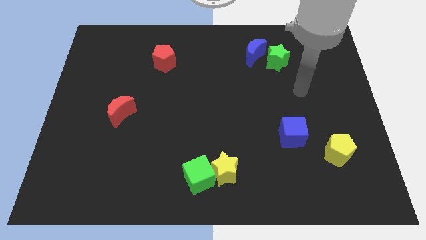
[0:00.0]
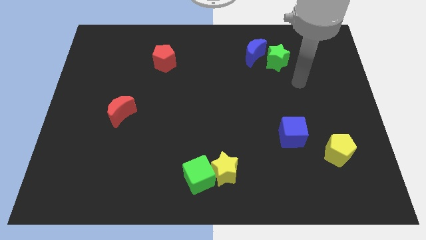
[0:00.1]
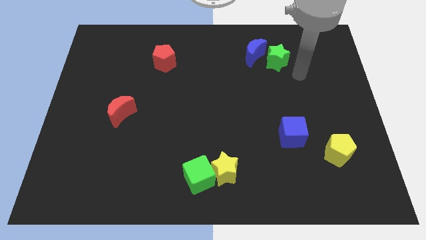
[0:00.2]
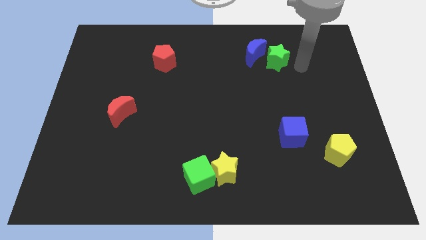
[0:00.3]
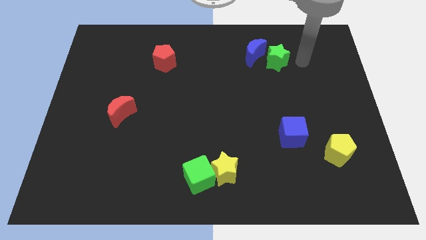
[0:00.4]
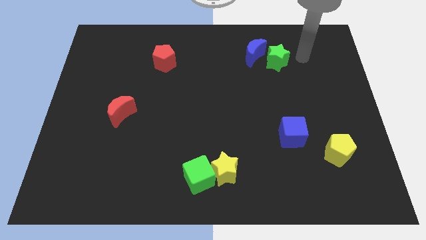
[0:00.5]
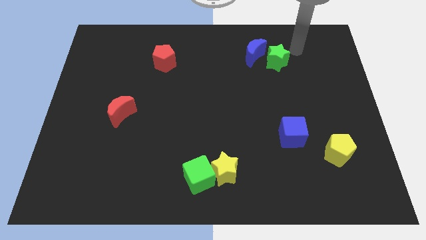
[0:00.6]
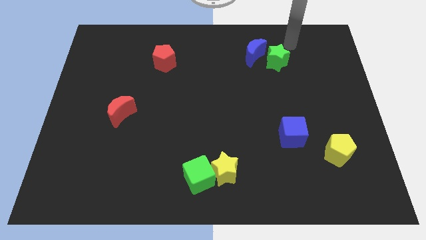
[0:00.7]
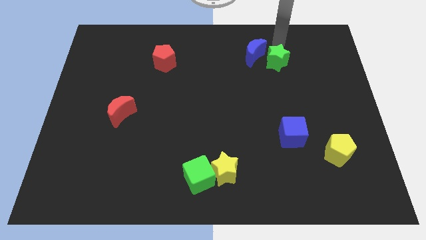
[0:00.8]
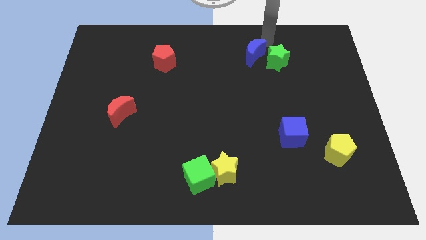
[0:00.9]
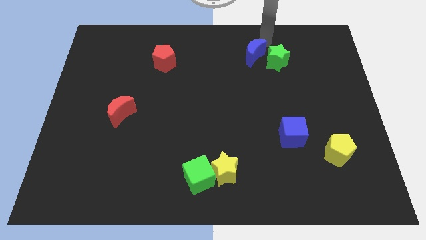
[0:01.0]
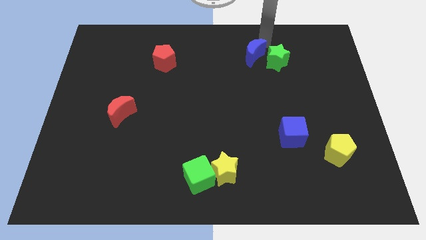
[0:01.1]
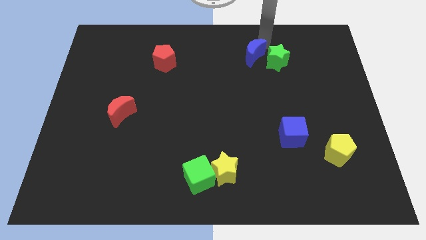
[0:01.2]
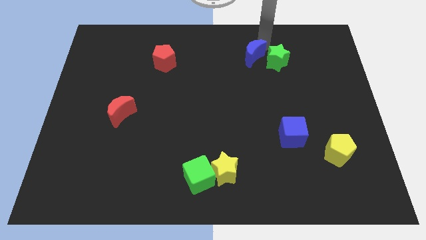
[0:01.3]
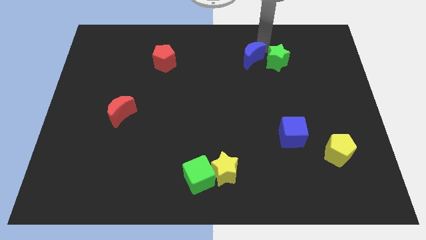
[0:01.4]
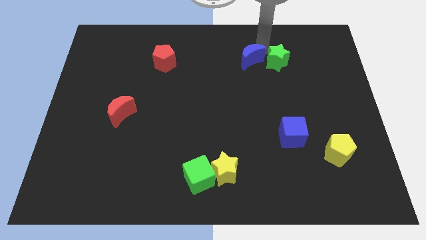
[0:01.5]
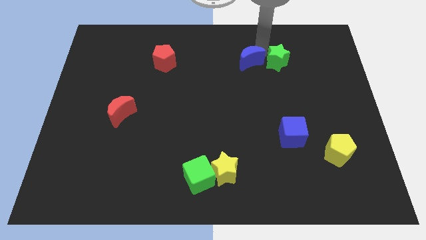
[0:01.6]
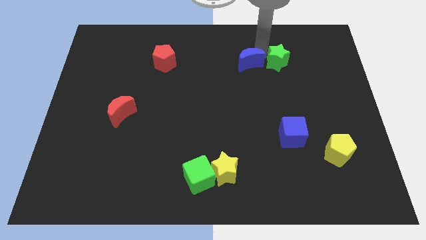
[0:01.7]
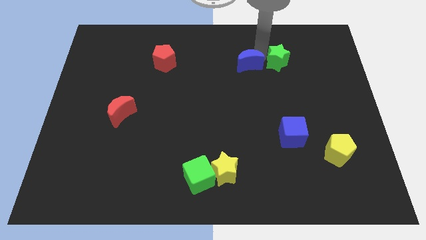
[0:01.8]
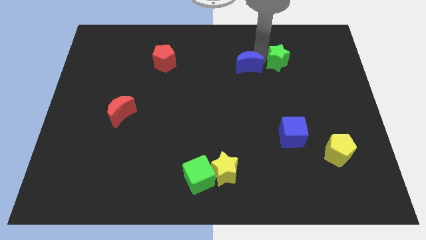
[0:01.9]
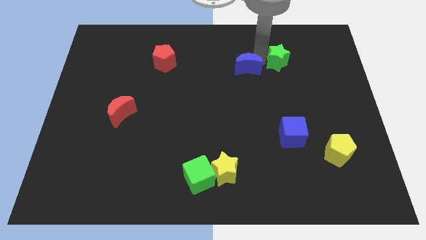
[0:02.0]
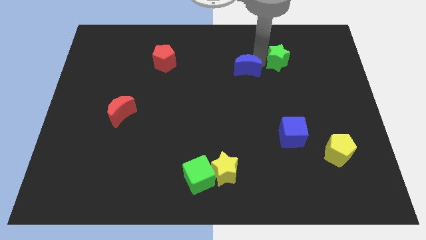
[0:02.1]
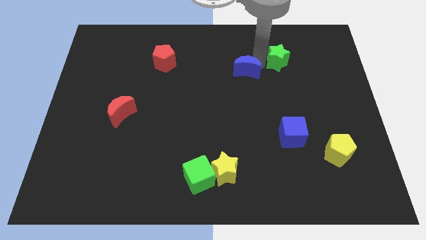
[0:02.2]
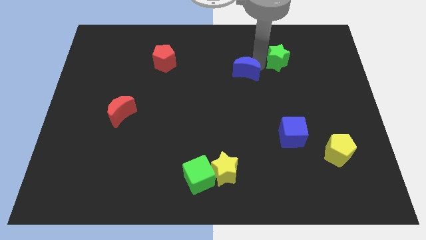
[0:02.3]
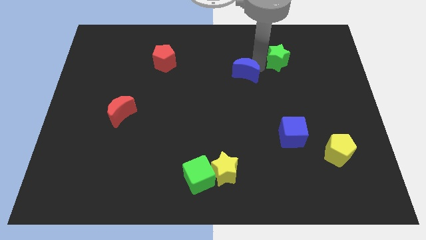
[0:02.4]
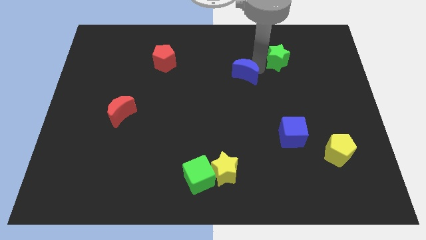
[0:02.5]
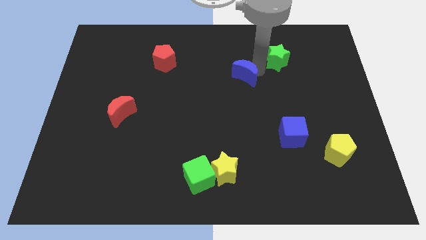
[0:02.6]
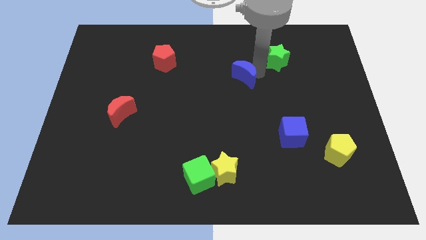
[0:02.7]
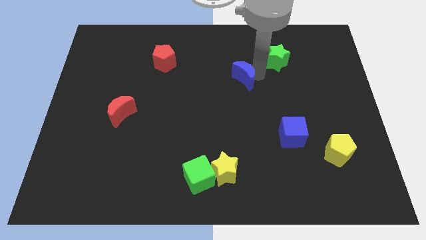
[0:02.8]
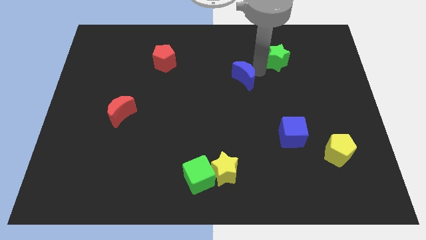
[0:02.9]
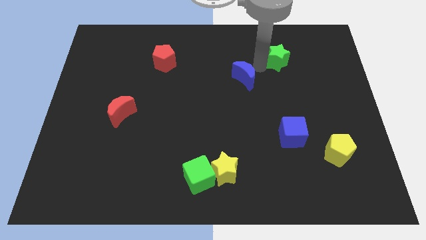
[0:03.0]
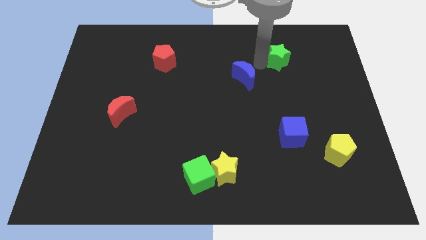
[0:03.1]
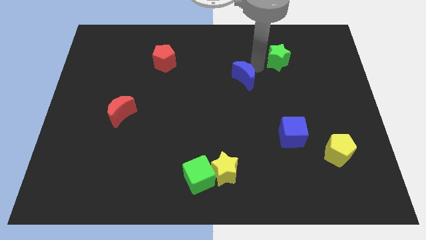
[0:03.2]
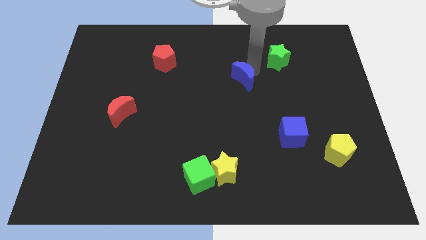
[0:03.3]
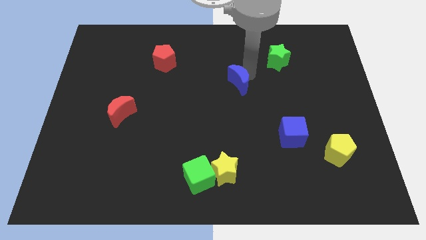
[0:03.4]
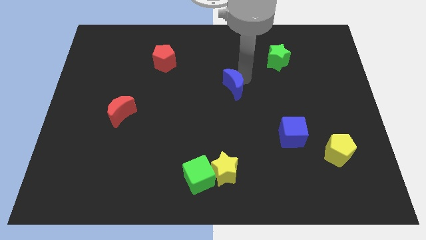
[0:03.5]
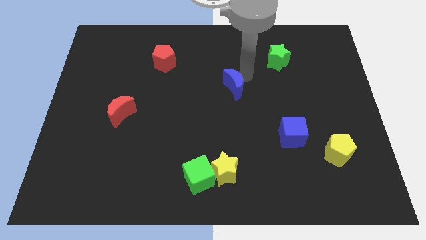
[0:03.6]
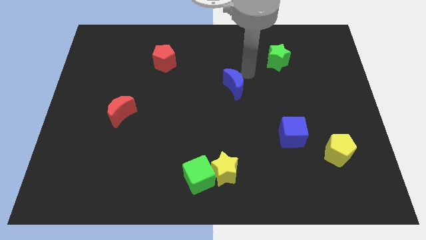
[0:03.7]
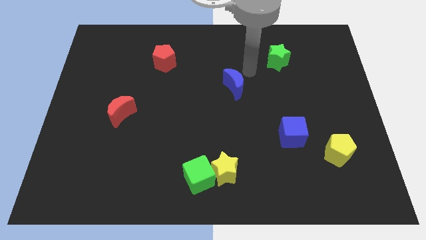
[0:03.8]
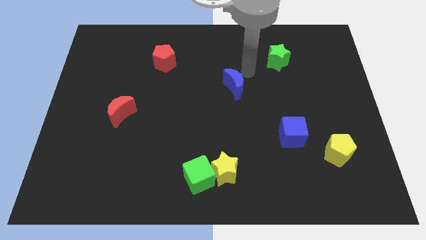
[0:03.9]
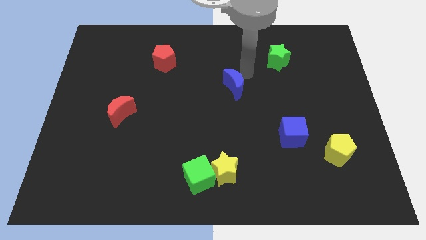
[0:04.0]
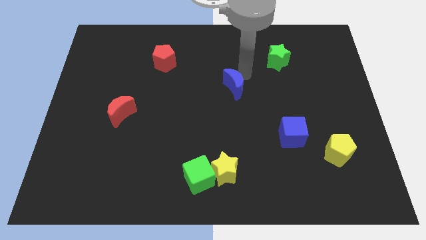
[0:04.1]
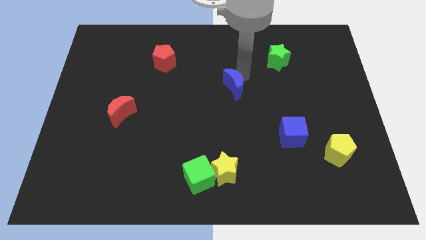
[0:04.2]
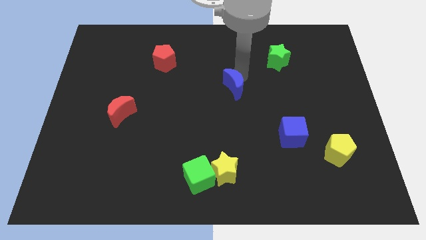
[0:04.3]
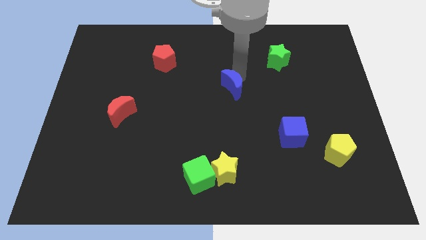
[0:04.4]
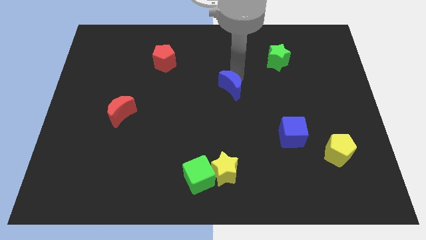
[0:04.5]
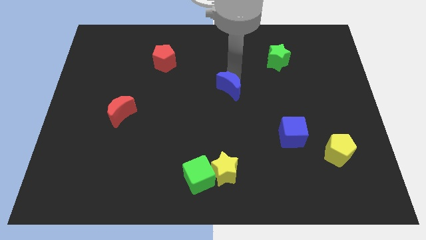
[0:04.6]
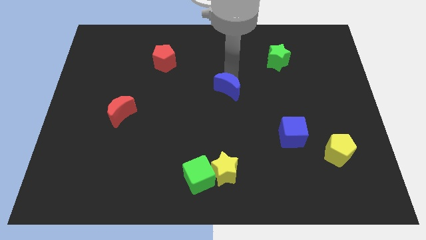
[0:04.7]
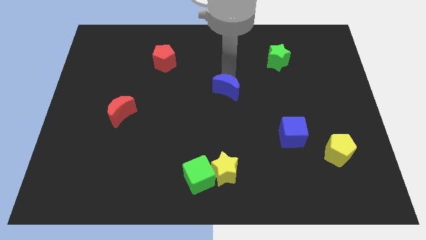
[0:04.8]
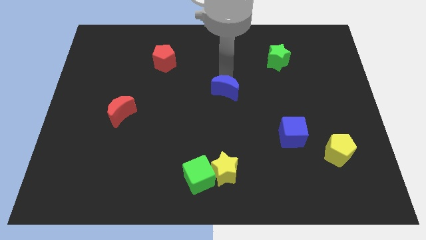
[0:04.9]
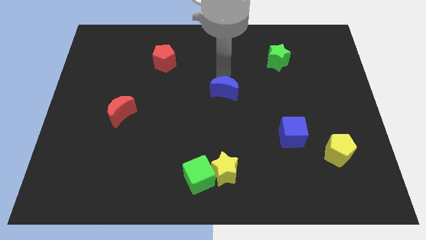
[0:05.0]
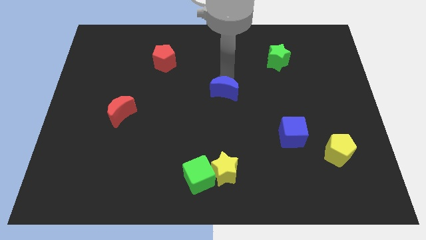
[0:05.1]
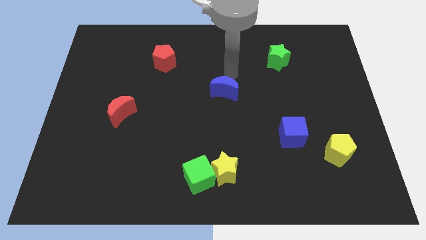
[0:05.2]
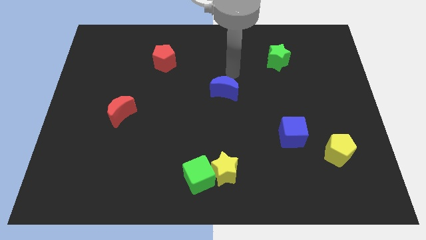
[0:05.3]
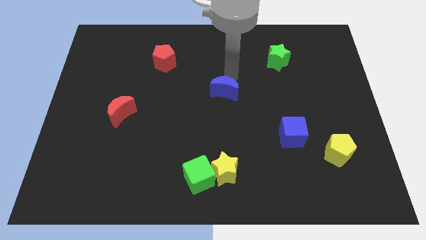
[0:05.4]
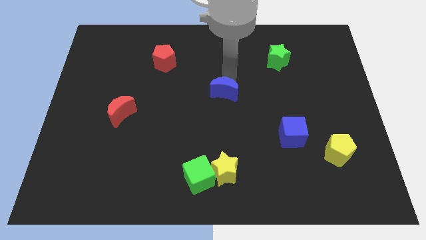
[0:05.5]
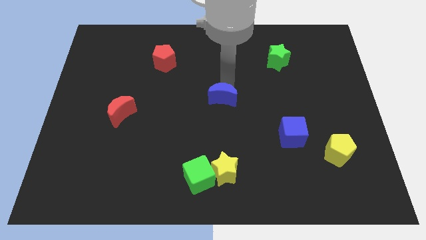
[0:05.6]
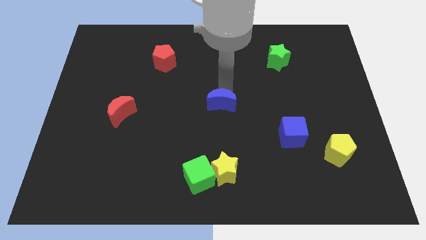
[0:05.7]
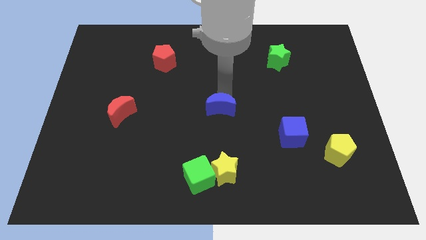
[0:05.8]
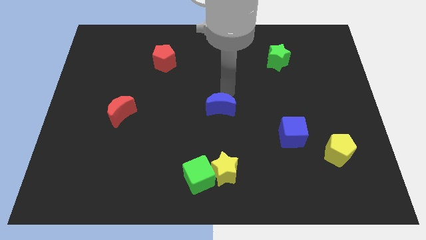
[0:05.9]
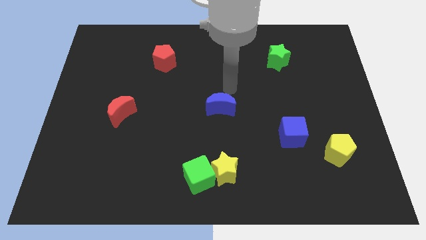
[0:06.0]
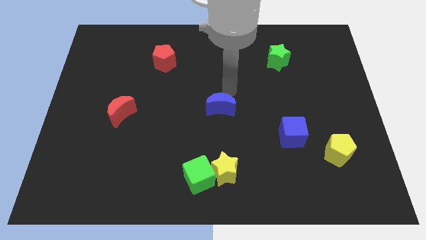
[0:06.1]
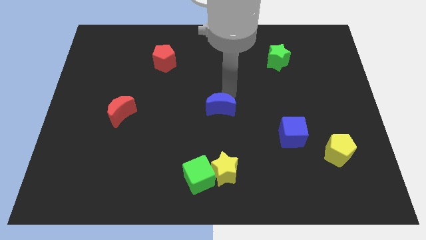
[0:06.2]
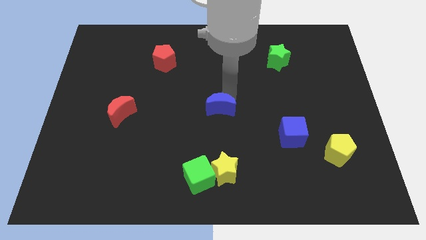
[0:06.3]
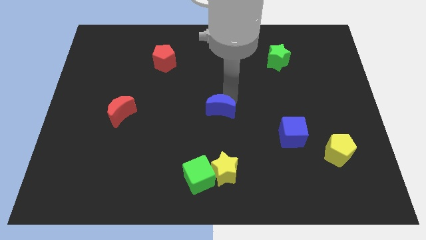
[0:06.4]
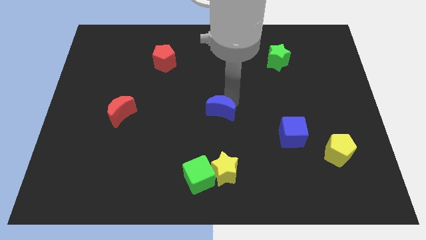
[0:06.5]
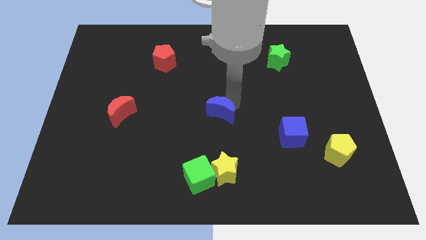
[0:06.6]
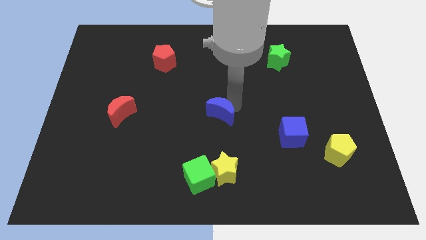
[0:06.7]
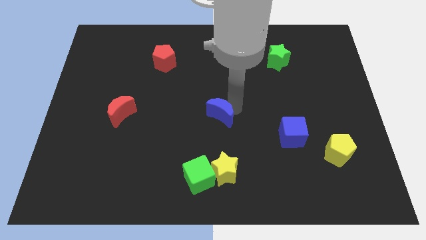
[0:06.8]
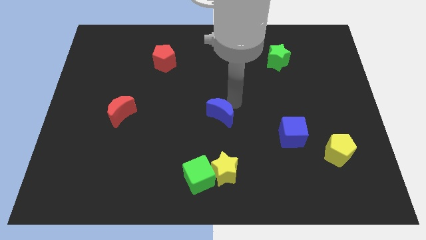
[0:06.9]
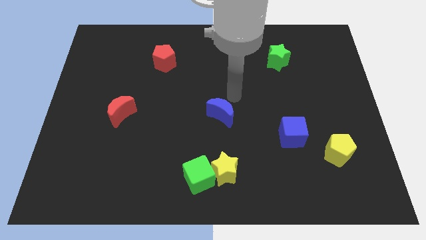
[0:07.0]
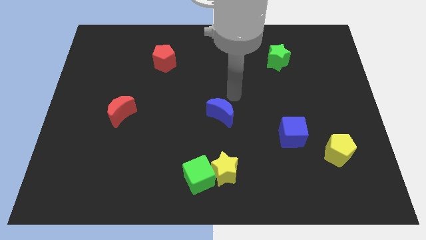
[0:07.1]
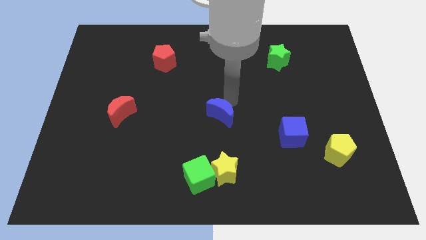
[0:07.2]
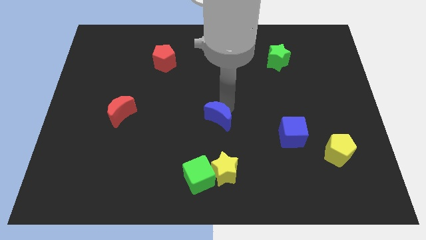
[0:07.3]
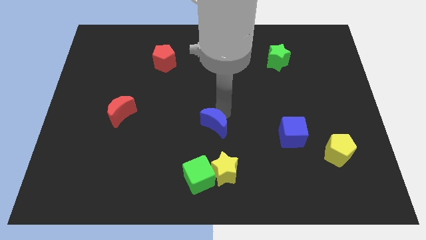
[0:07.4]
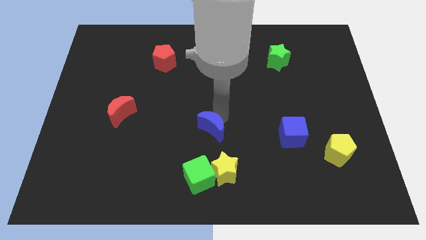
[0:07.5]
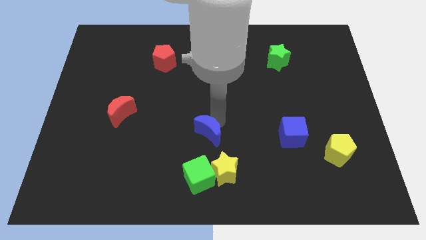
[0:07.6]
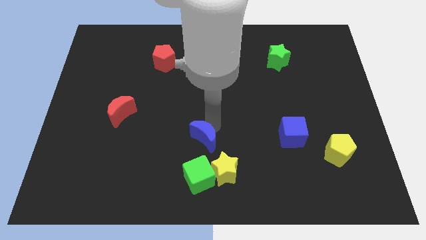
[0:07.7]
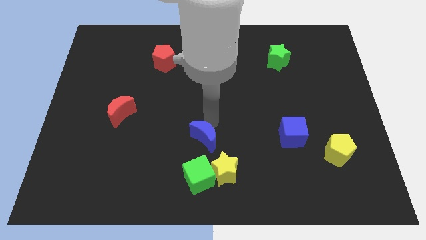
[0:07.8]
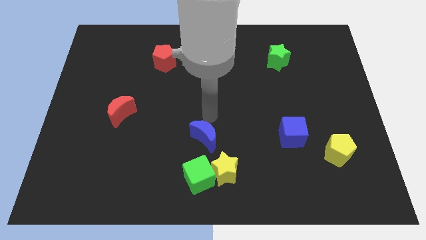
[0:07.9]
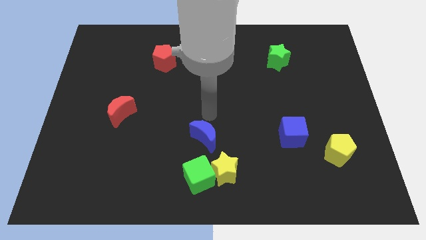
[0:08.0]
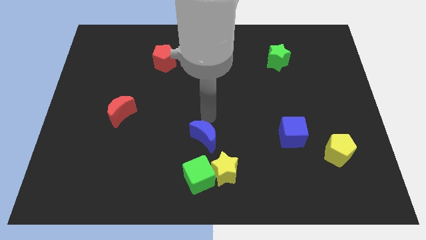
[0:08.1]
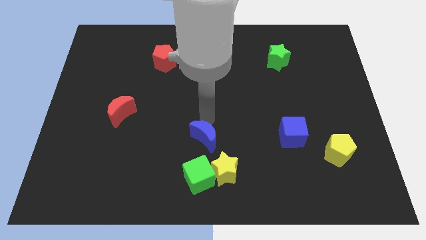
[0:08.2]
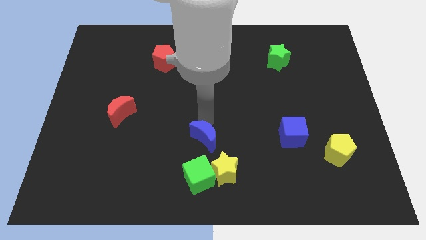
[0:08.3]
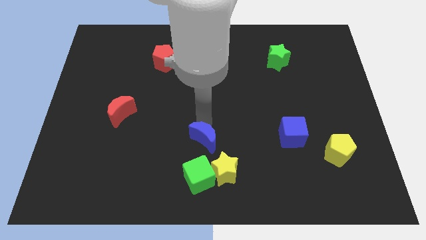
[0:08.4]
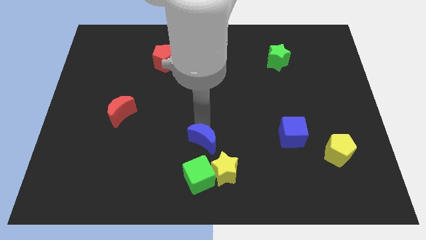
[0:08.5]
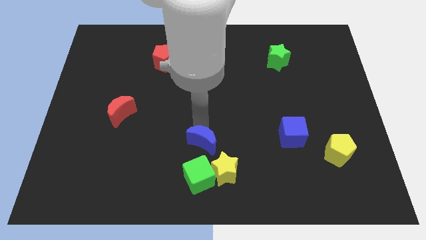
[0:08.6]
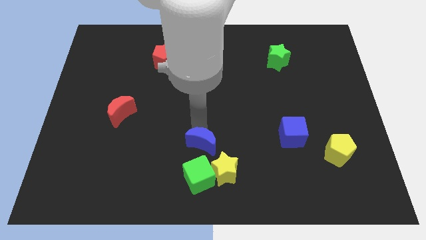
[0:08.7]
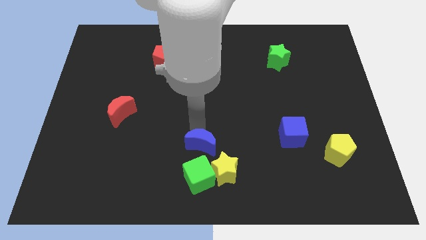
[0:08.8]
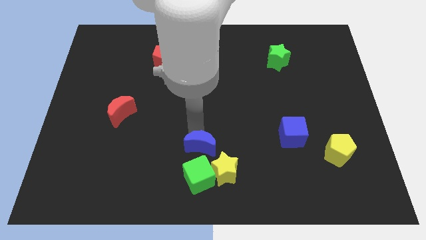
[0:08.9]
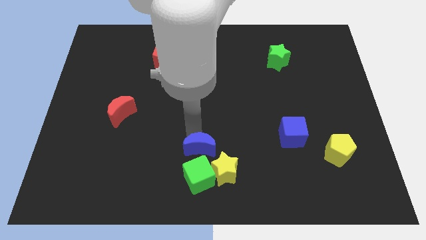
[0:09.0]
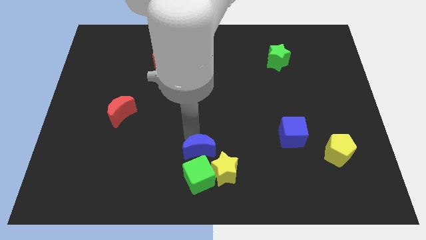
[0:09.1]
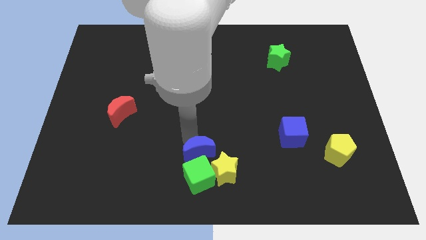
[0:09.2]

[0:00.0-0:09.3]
slide the blue moon towards the green cube
